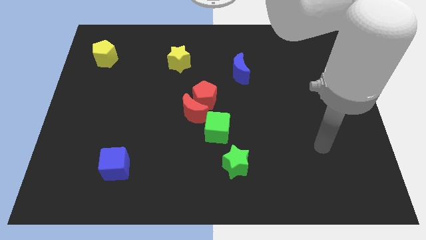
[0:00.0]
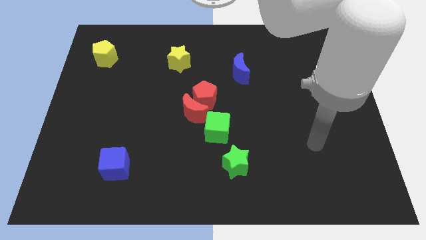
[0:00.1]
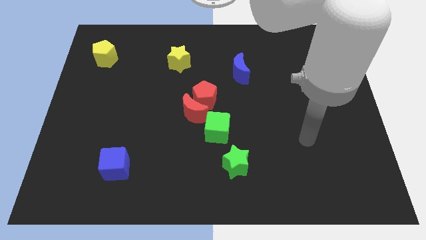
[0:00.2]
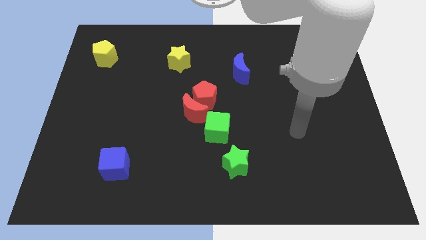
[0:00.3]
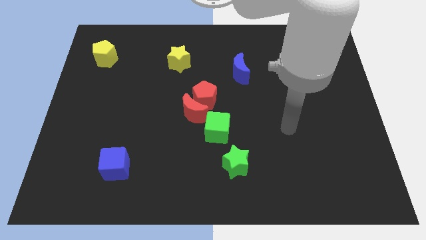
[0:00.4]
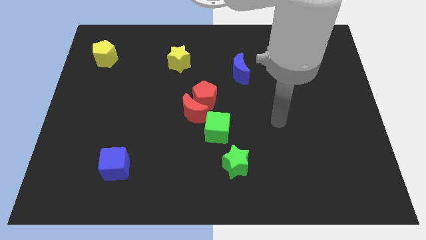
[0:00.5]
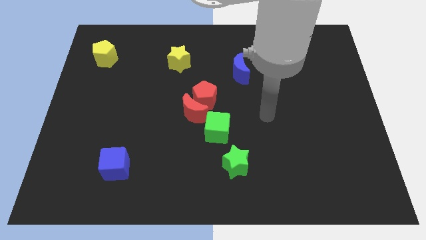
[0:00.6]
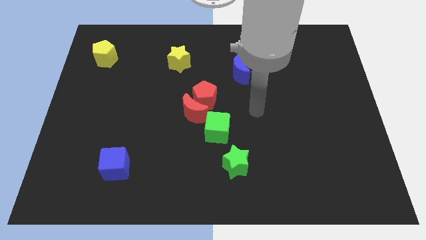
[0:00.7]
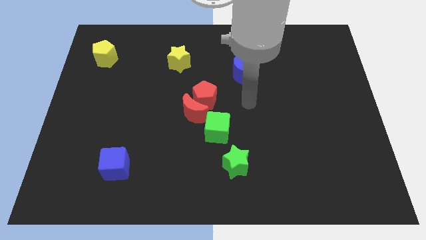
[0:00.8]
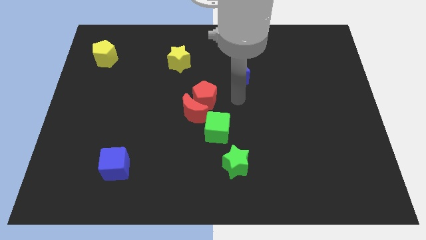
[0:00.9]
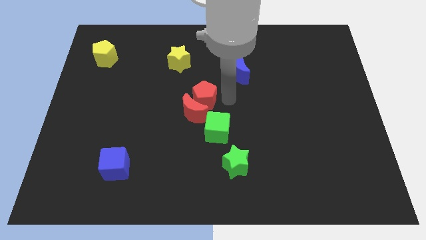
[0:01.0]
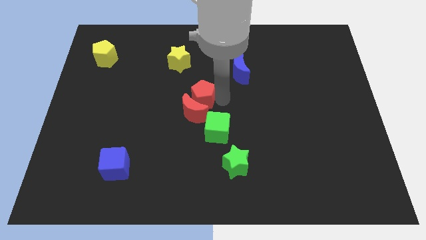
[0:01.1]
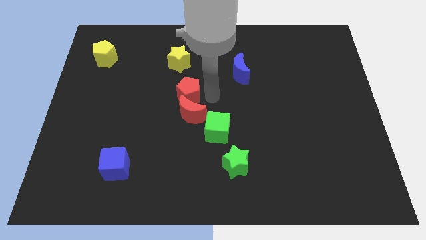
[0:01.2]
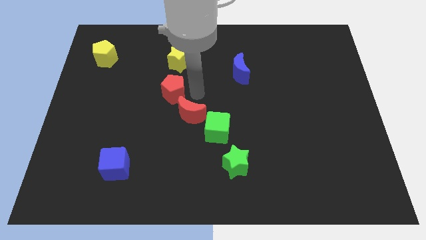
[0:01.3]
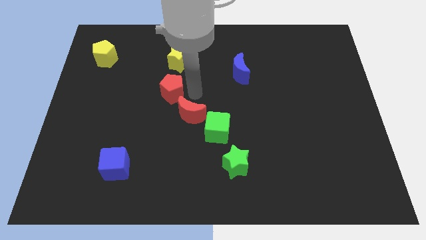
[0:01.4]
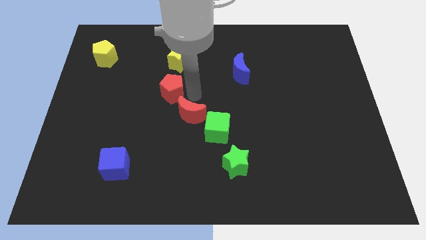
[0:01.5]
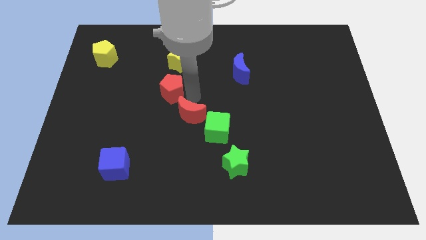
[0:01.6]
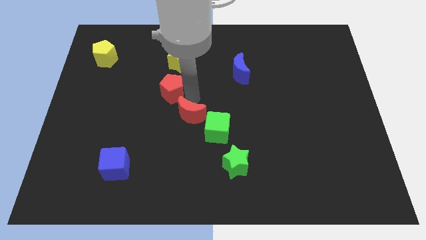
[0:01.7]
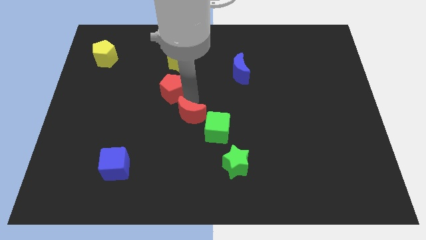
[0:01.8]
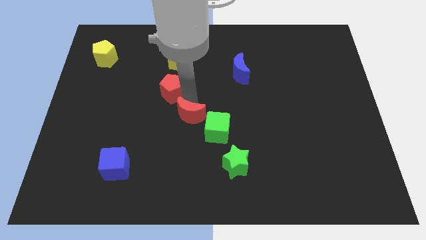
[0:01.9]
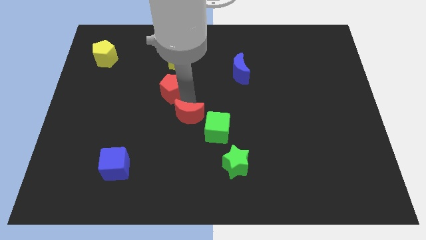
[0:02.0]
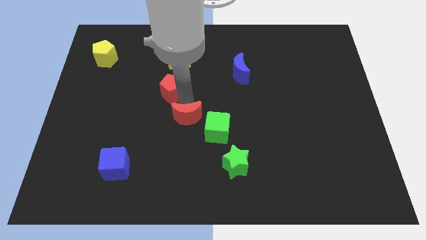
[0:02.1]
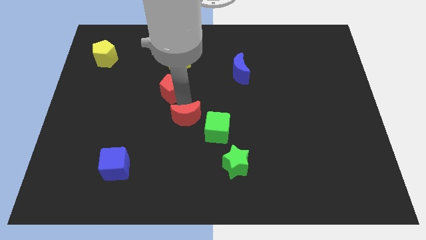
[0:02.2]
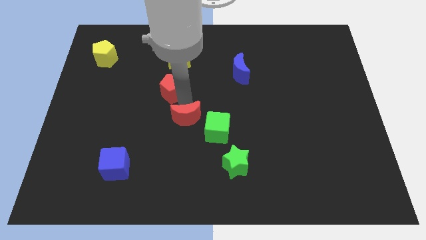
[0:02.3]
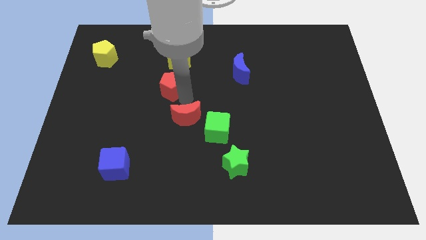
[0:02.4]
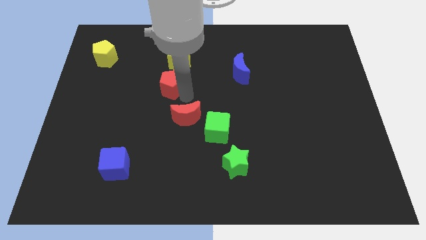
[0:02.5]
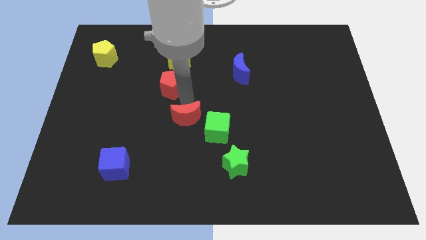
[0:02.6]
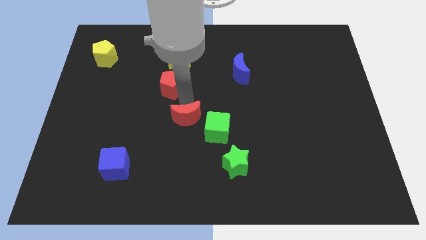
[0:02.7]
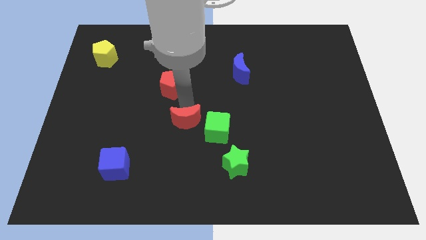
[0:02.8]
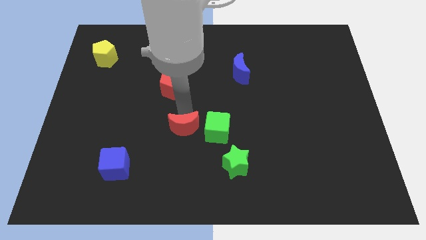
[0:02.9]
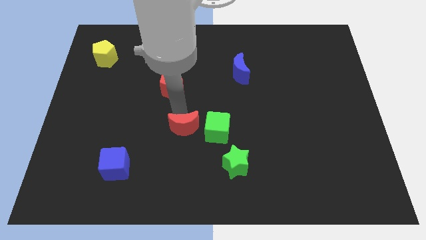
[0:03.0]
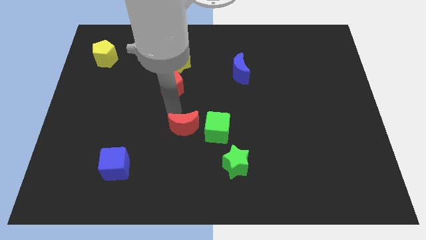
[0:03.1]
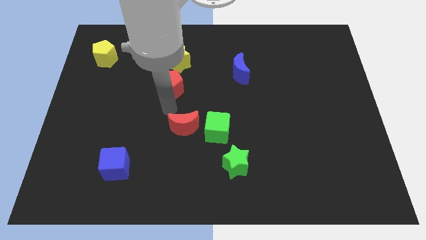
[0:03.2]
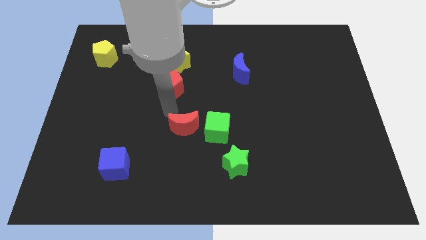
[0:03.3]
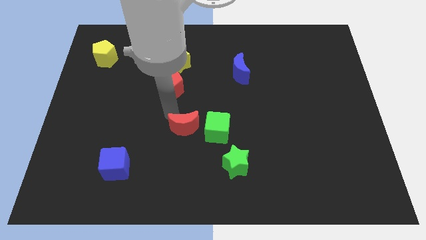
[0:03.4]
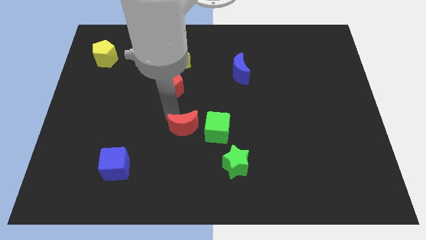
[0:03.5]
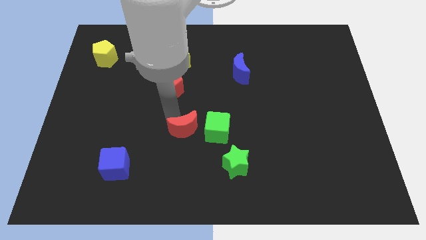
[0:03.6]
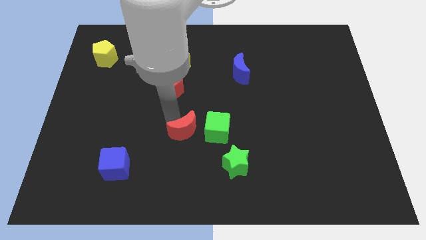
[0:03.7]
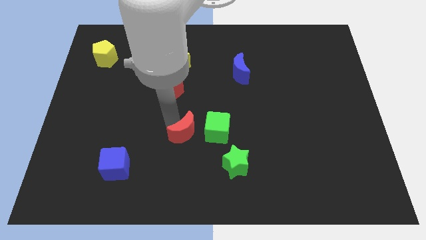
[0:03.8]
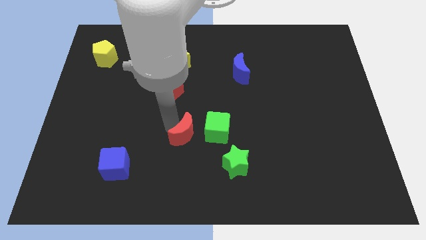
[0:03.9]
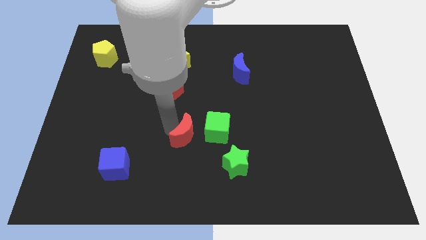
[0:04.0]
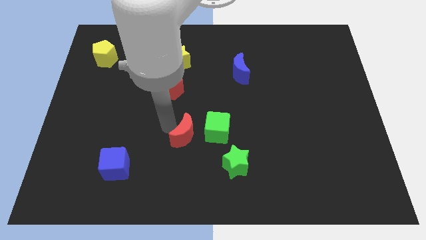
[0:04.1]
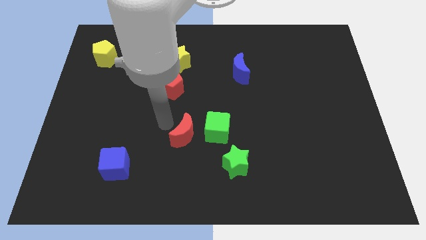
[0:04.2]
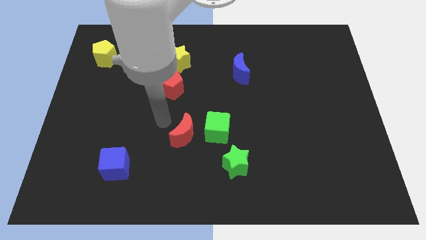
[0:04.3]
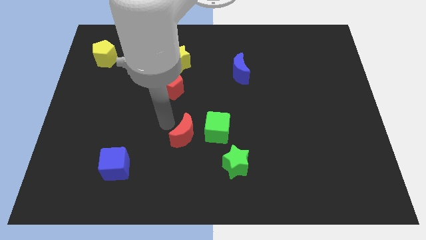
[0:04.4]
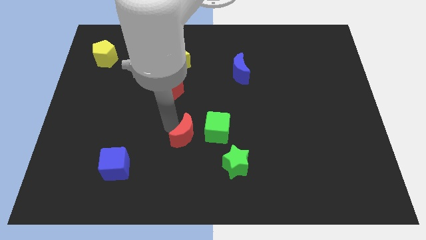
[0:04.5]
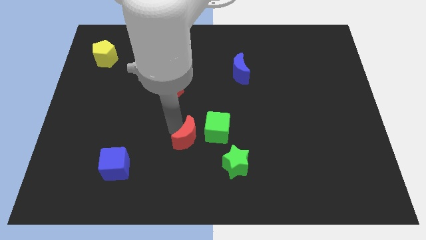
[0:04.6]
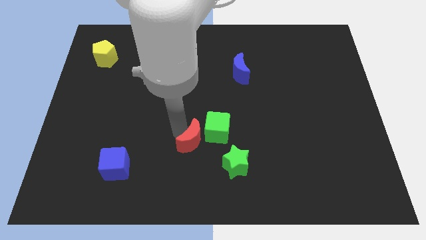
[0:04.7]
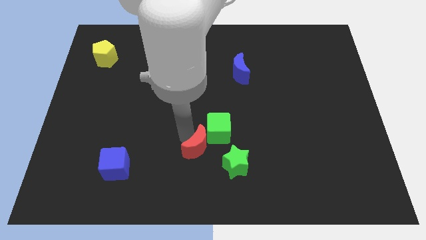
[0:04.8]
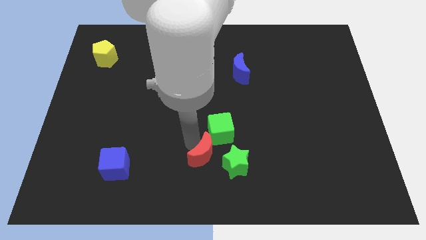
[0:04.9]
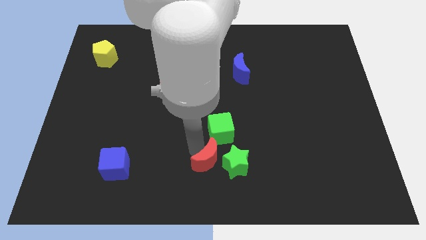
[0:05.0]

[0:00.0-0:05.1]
put the red moon towards the green star

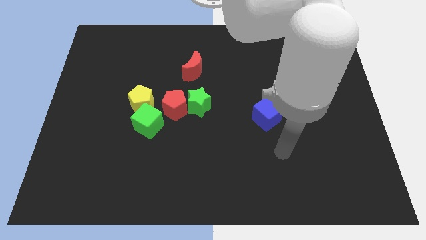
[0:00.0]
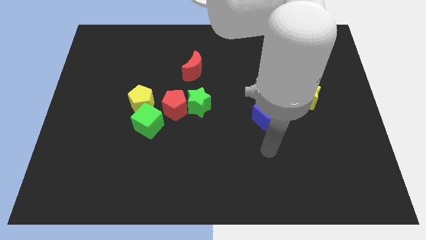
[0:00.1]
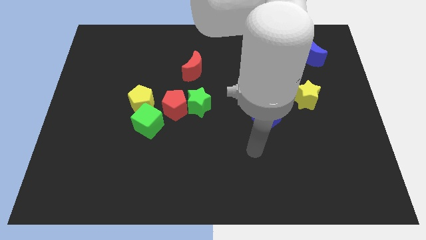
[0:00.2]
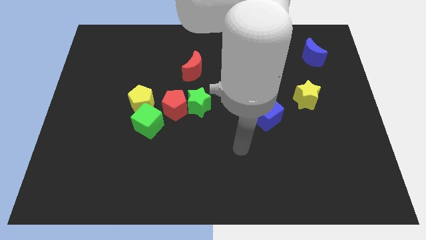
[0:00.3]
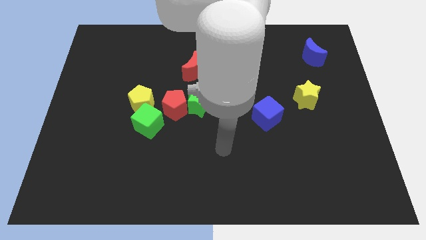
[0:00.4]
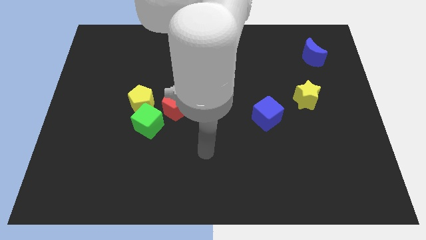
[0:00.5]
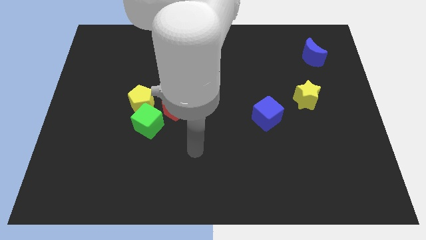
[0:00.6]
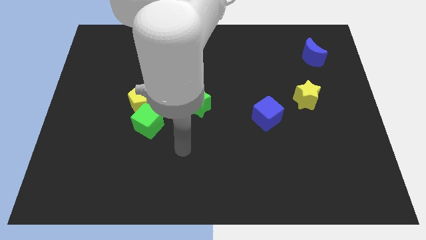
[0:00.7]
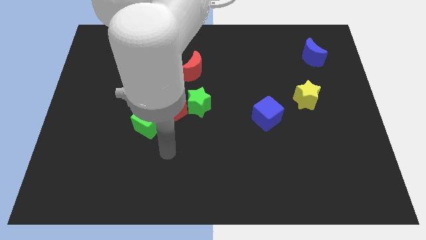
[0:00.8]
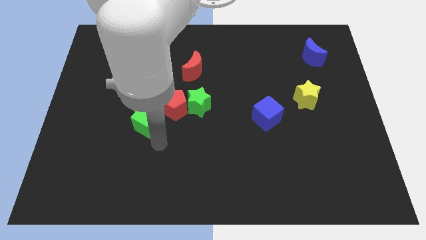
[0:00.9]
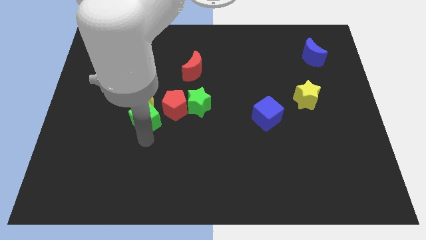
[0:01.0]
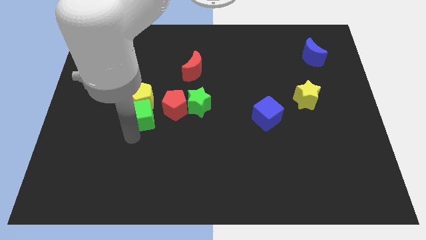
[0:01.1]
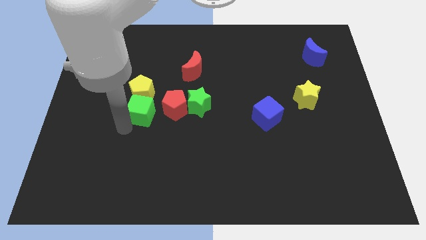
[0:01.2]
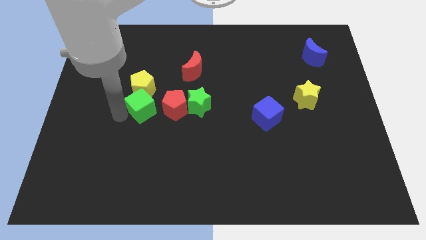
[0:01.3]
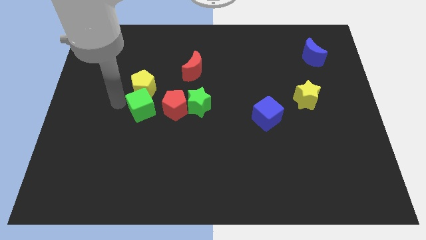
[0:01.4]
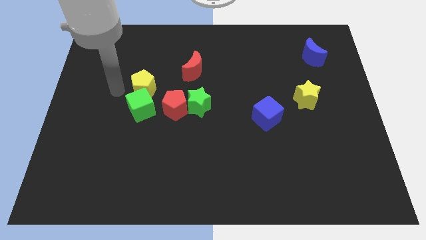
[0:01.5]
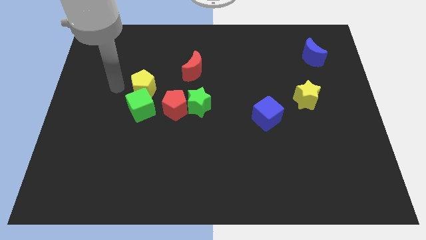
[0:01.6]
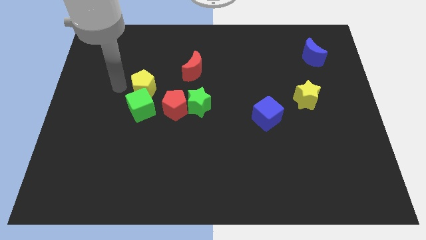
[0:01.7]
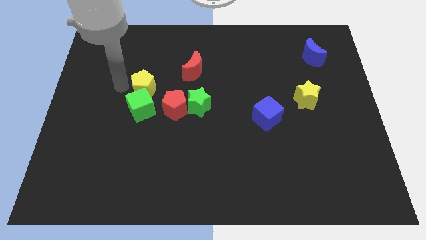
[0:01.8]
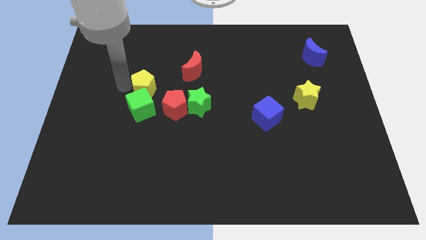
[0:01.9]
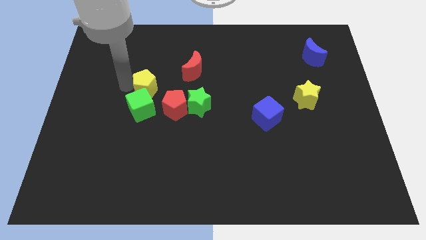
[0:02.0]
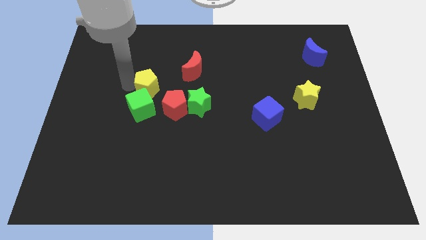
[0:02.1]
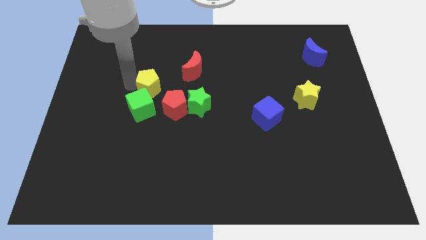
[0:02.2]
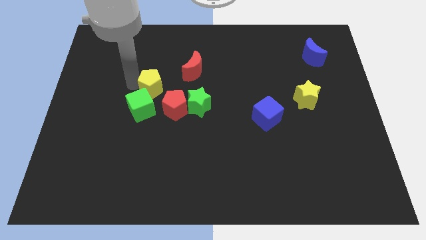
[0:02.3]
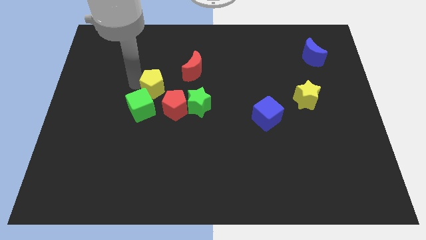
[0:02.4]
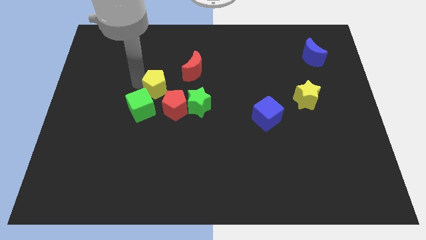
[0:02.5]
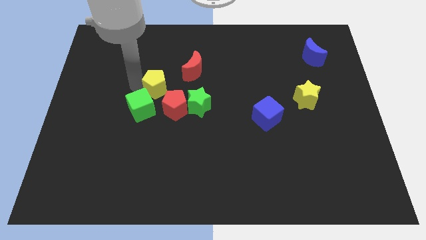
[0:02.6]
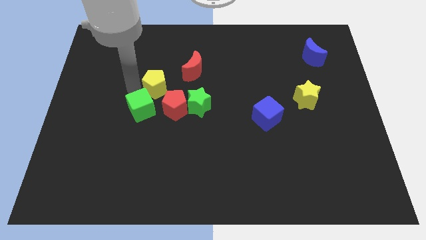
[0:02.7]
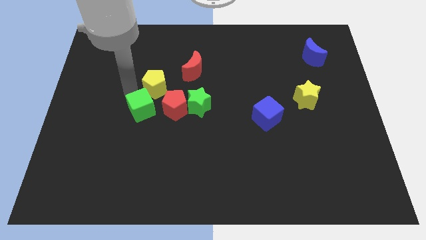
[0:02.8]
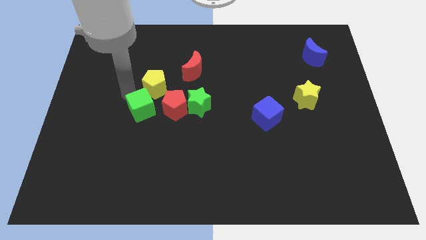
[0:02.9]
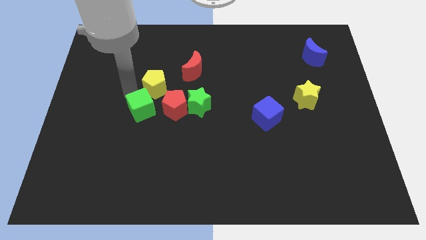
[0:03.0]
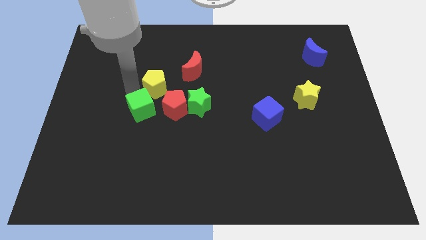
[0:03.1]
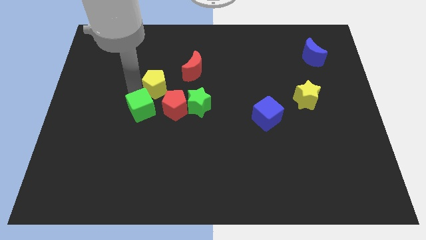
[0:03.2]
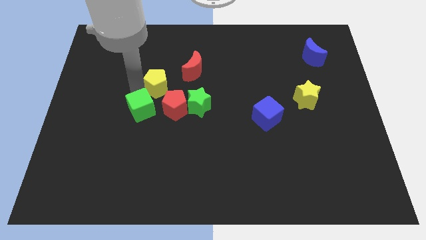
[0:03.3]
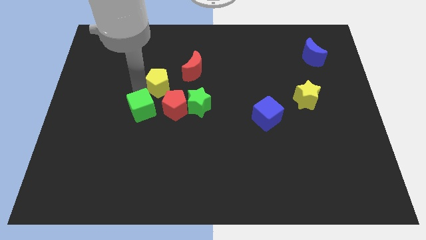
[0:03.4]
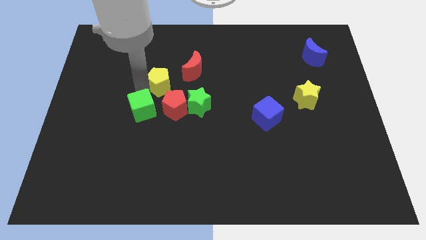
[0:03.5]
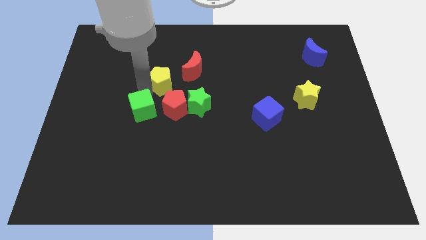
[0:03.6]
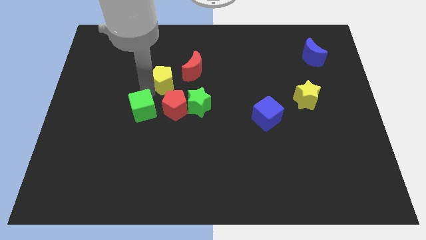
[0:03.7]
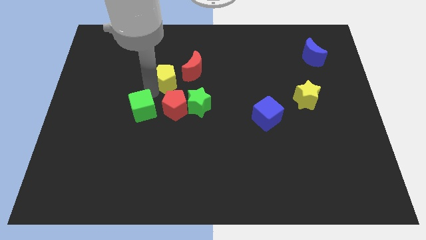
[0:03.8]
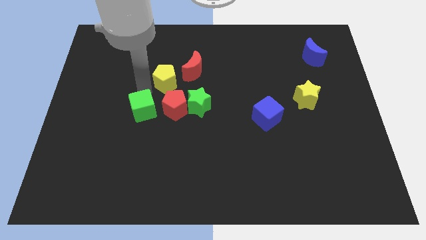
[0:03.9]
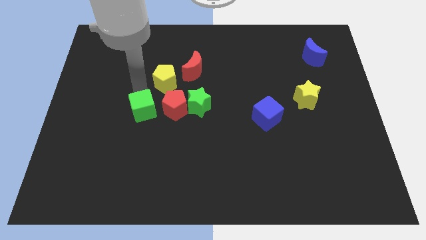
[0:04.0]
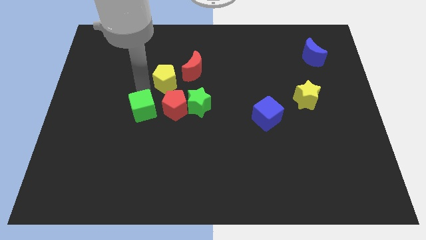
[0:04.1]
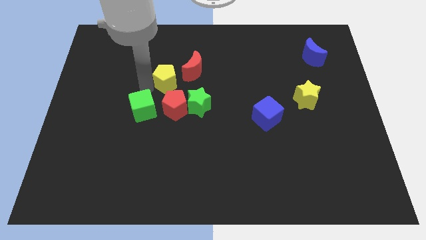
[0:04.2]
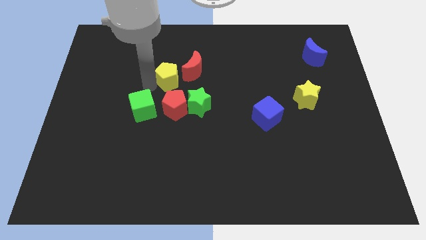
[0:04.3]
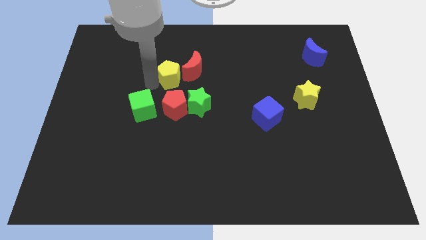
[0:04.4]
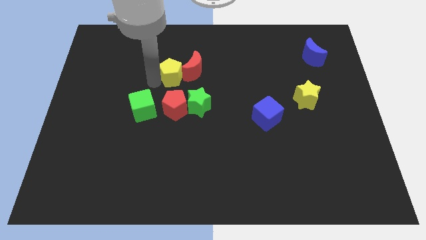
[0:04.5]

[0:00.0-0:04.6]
slide the yellow pentagon next to the red moon
